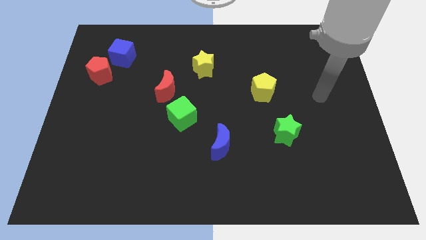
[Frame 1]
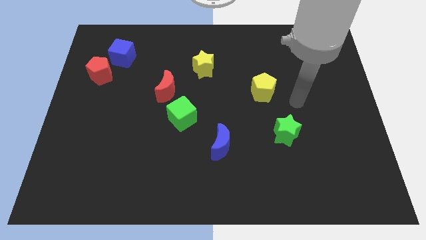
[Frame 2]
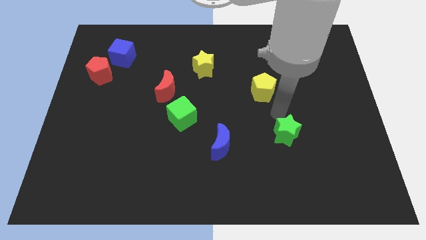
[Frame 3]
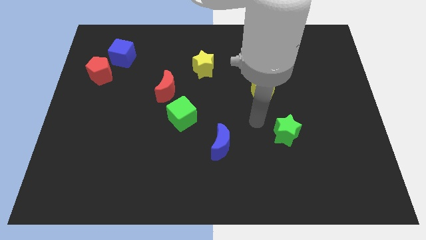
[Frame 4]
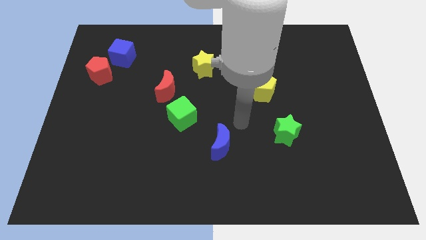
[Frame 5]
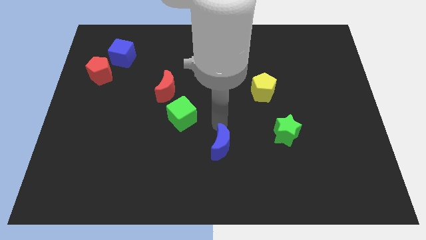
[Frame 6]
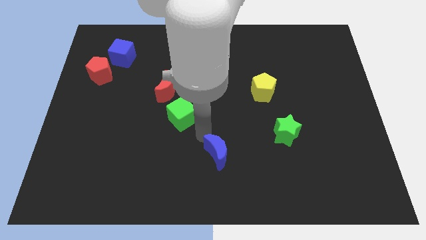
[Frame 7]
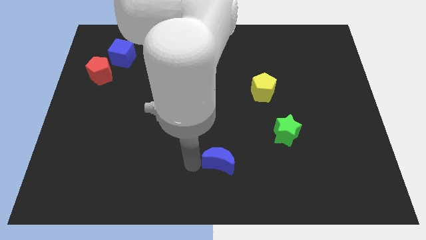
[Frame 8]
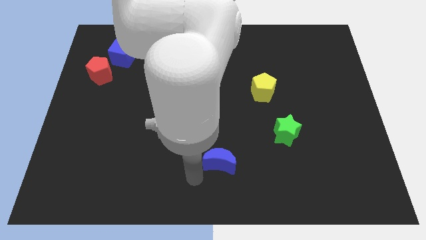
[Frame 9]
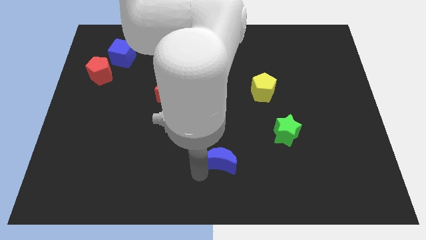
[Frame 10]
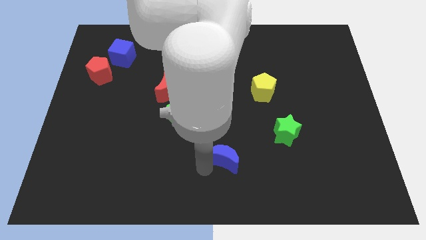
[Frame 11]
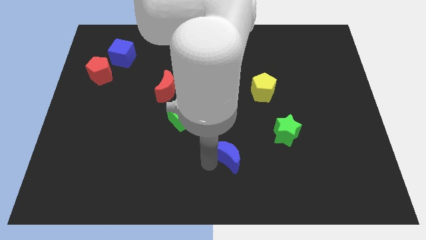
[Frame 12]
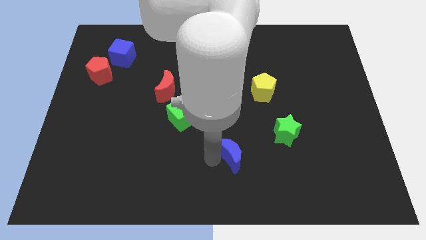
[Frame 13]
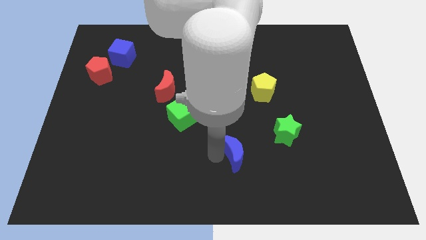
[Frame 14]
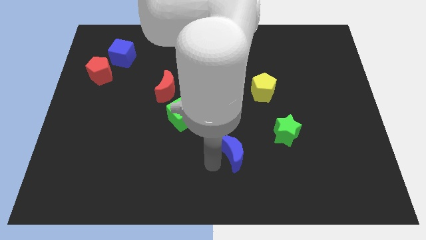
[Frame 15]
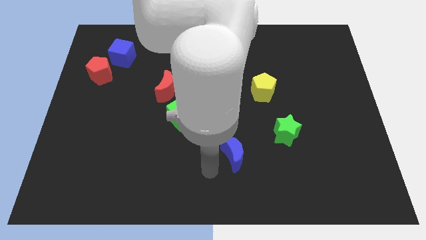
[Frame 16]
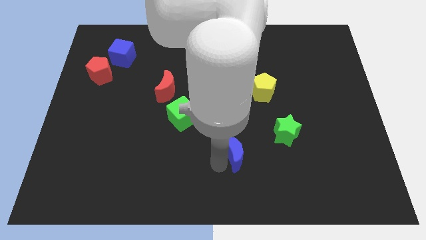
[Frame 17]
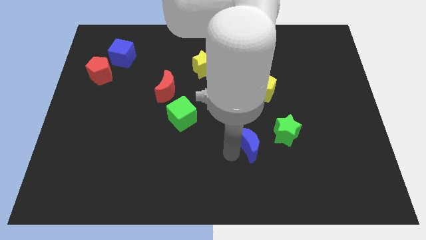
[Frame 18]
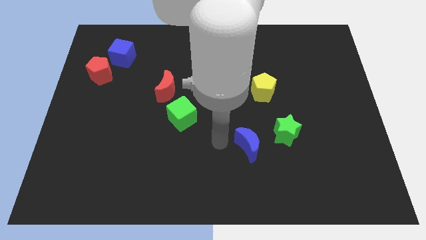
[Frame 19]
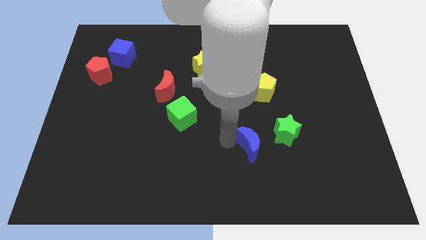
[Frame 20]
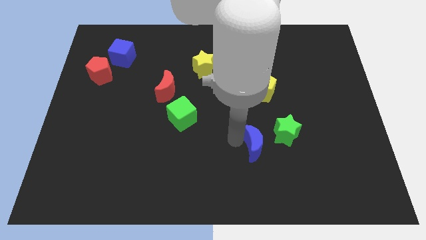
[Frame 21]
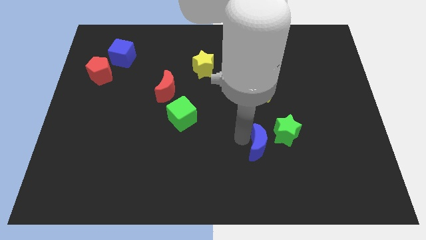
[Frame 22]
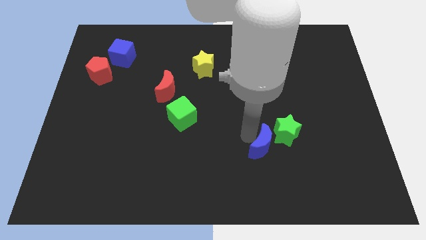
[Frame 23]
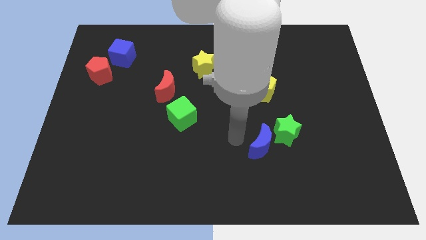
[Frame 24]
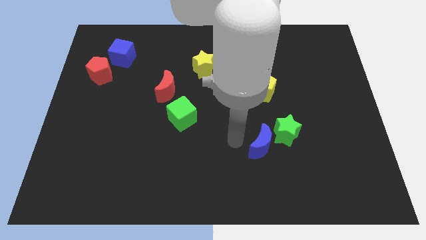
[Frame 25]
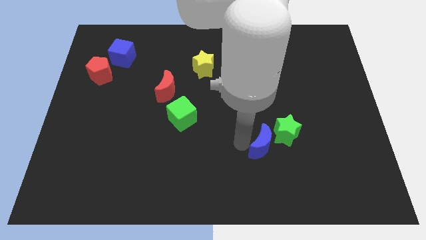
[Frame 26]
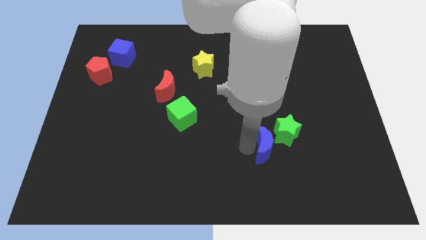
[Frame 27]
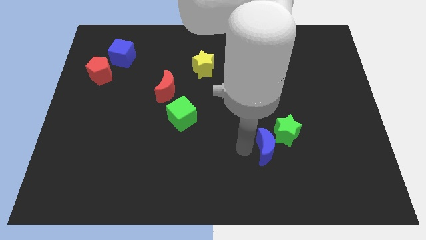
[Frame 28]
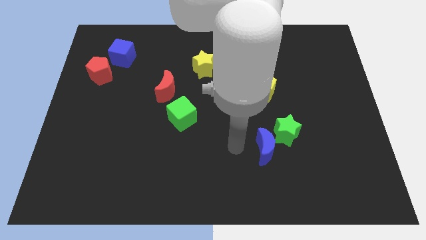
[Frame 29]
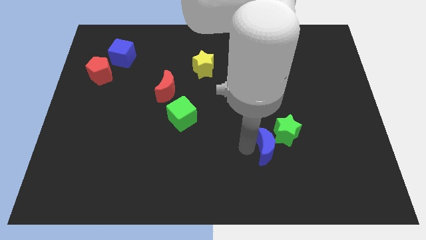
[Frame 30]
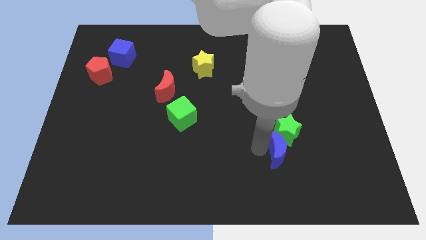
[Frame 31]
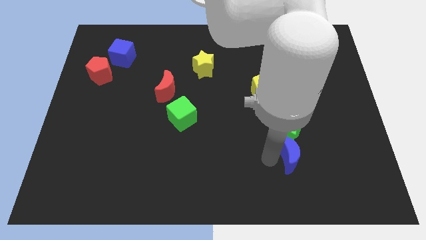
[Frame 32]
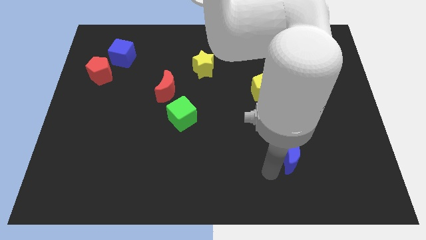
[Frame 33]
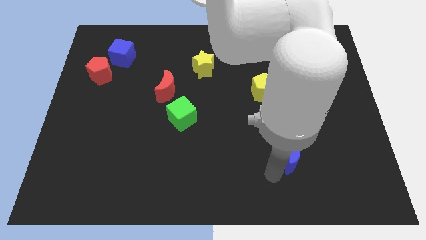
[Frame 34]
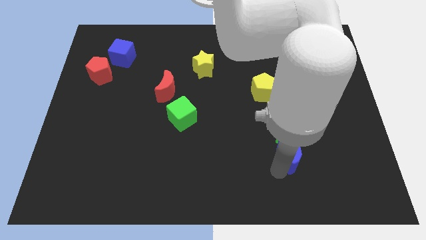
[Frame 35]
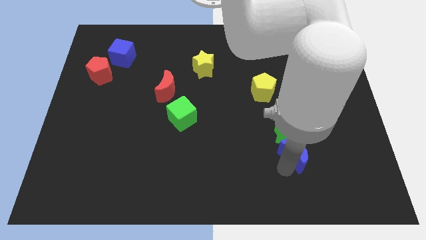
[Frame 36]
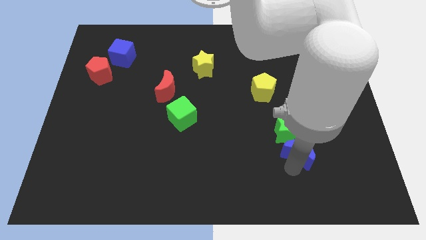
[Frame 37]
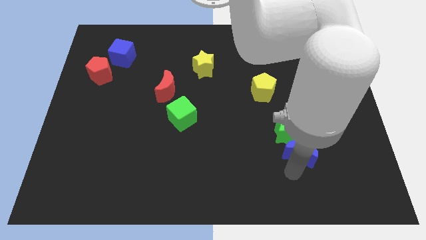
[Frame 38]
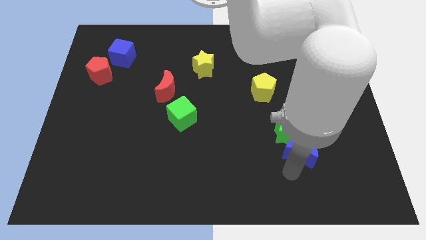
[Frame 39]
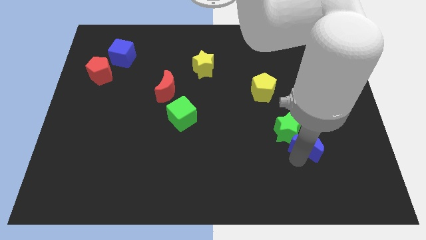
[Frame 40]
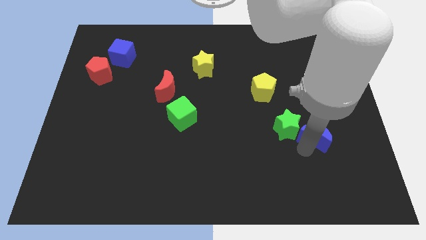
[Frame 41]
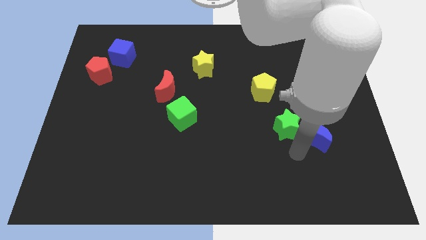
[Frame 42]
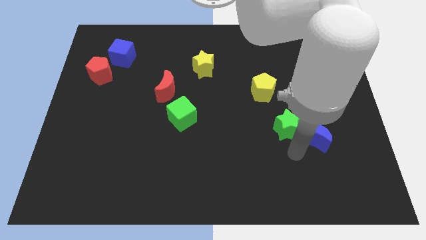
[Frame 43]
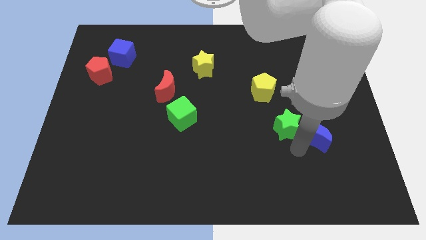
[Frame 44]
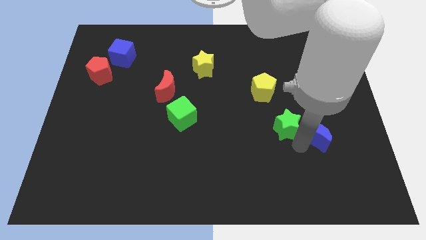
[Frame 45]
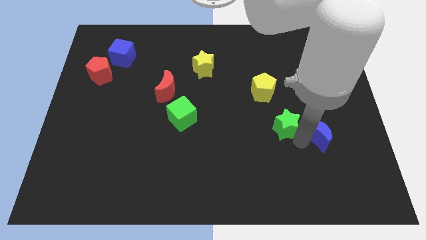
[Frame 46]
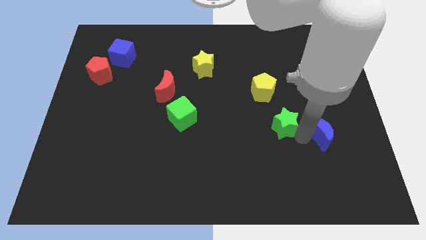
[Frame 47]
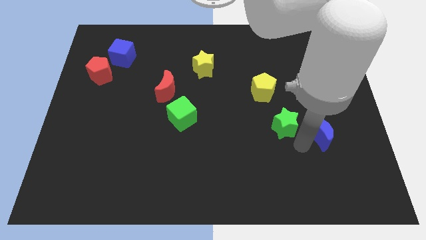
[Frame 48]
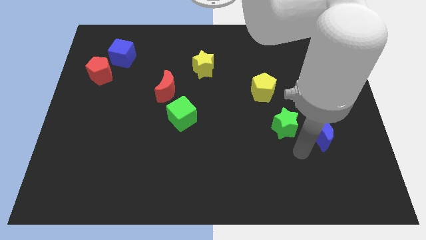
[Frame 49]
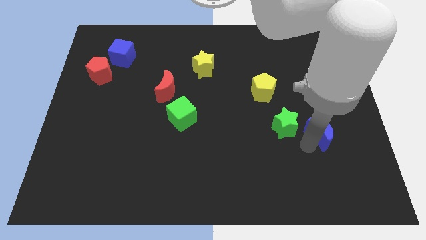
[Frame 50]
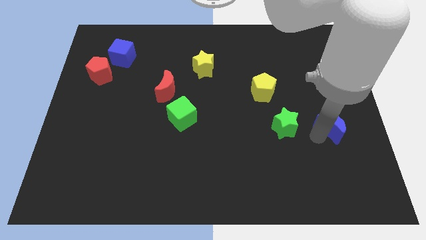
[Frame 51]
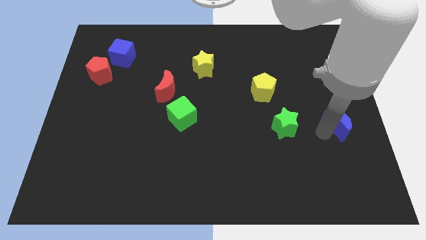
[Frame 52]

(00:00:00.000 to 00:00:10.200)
push the blue moon to the right side of the board

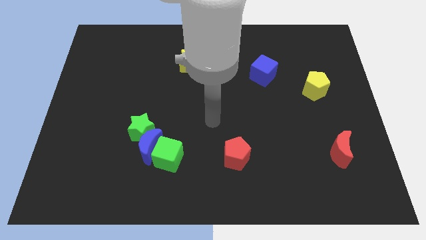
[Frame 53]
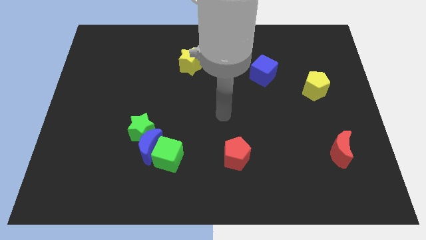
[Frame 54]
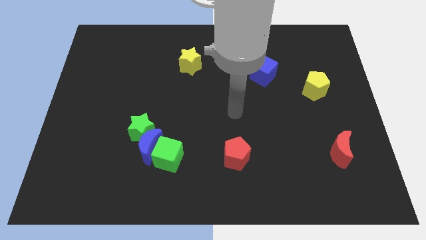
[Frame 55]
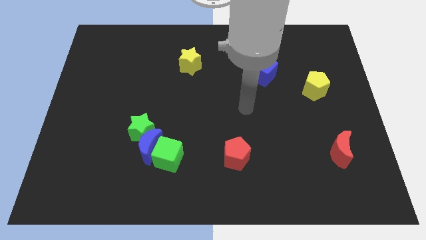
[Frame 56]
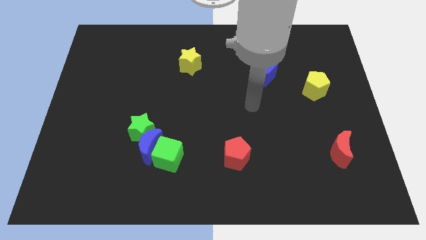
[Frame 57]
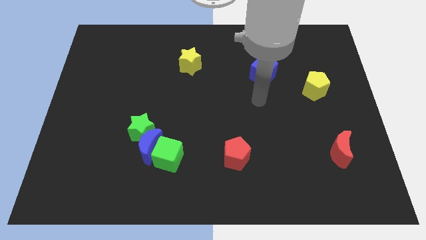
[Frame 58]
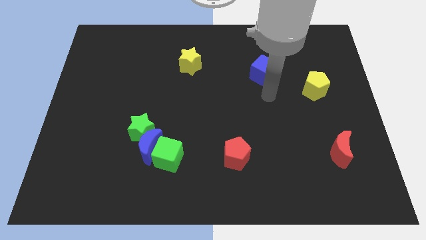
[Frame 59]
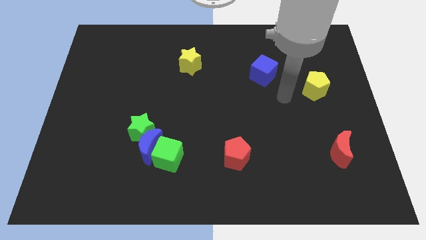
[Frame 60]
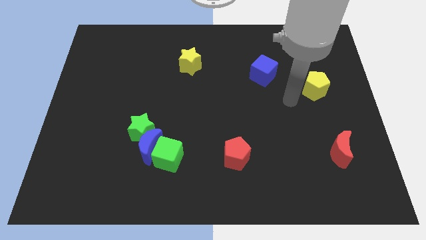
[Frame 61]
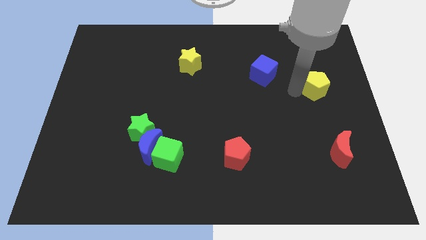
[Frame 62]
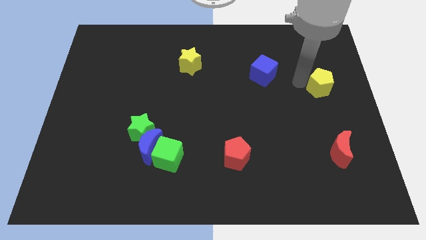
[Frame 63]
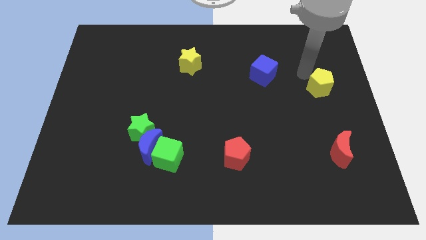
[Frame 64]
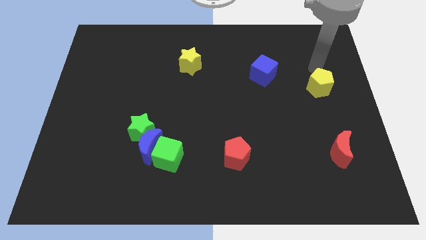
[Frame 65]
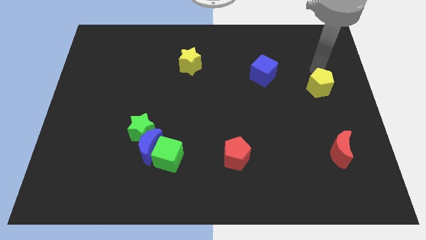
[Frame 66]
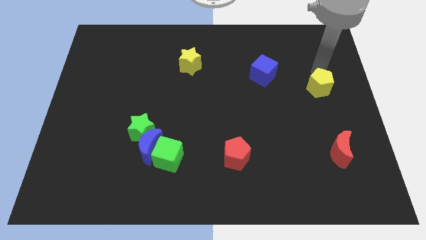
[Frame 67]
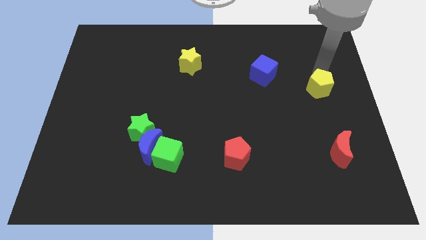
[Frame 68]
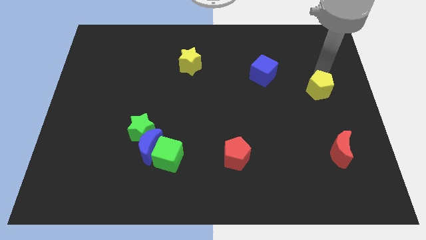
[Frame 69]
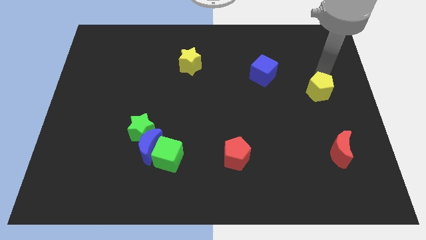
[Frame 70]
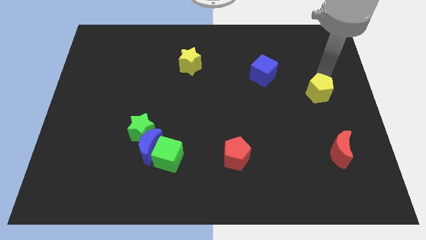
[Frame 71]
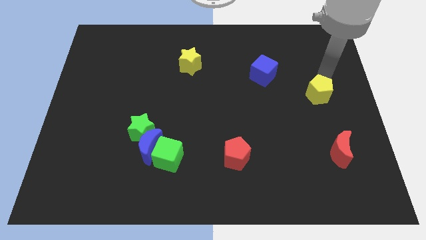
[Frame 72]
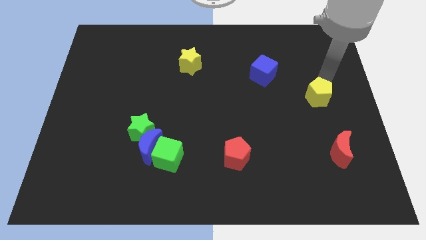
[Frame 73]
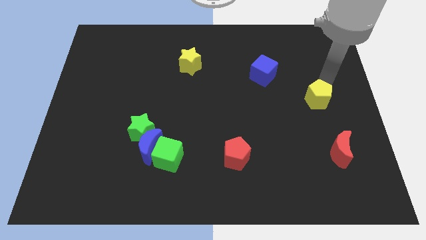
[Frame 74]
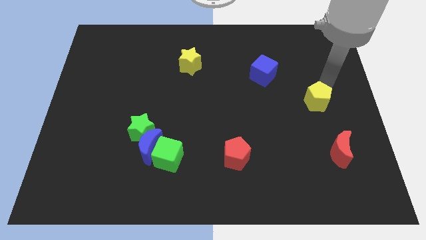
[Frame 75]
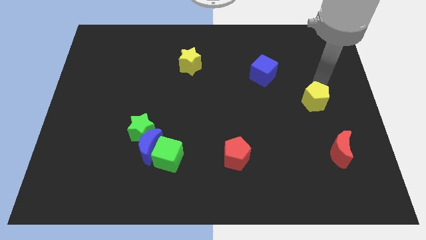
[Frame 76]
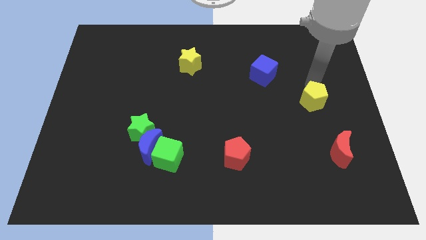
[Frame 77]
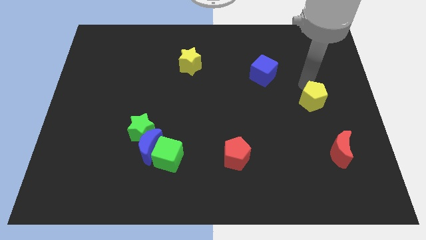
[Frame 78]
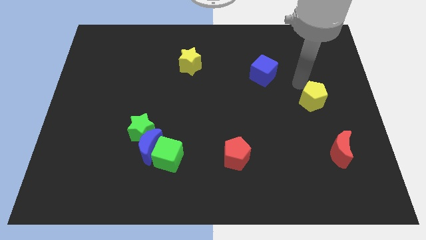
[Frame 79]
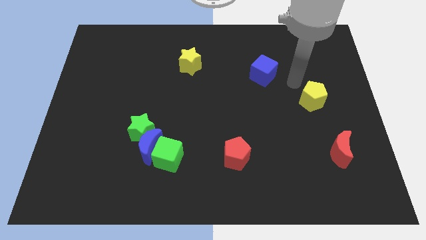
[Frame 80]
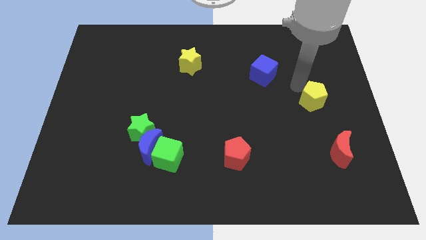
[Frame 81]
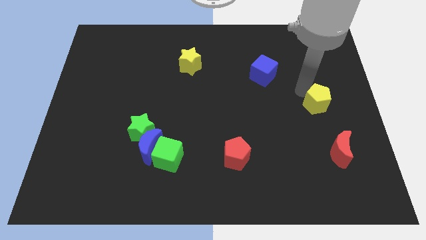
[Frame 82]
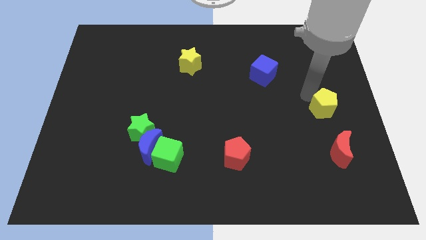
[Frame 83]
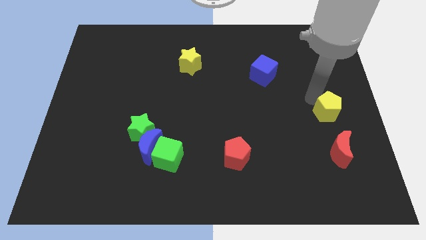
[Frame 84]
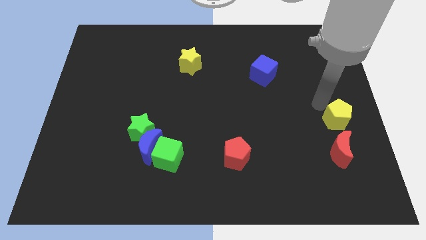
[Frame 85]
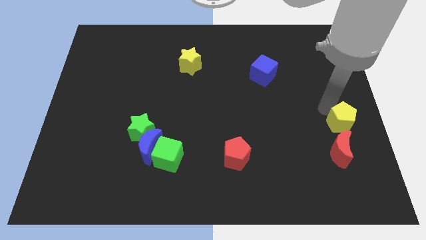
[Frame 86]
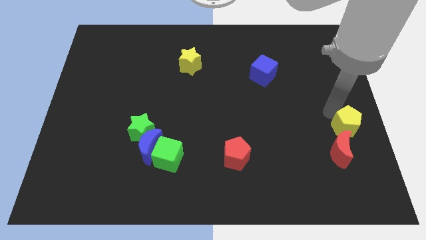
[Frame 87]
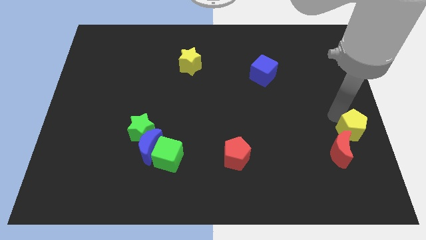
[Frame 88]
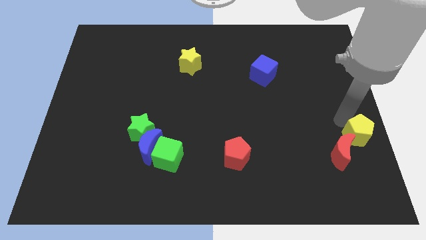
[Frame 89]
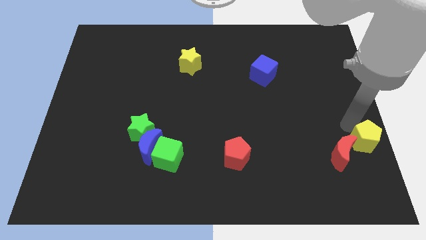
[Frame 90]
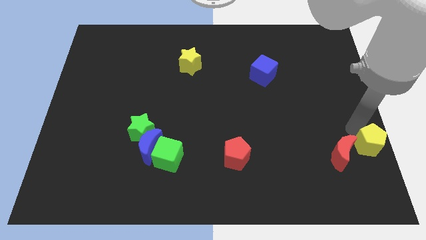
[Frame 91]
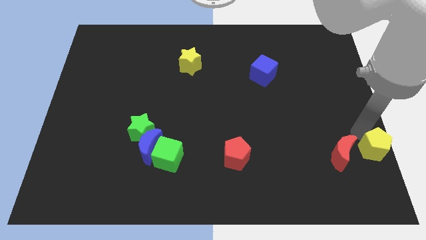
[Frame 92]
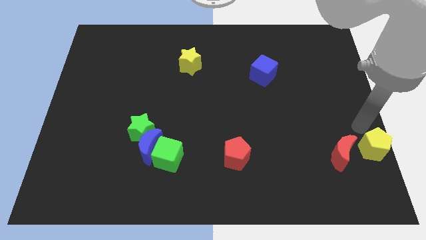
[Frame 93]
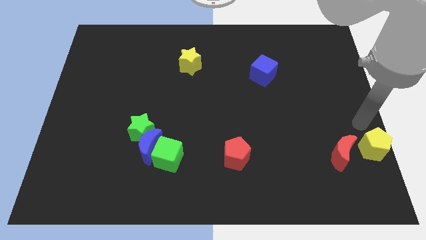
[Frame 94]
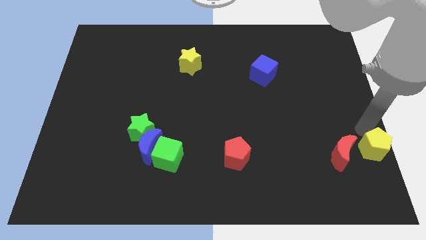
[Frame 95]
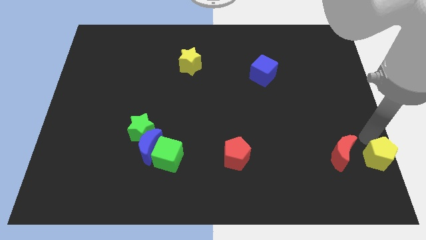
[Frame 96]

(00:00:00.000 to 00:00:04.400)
push the yellow pentagon to the bottom right corner
